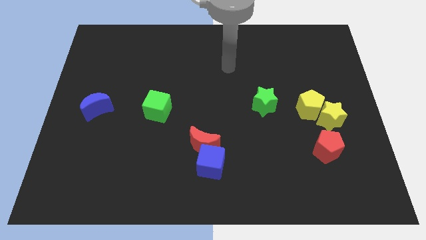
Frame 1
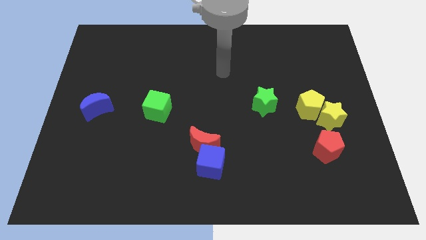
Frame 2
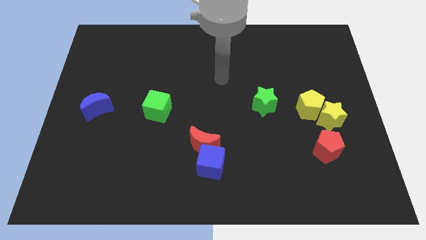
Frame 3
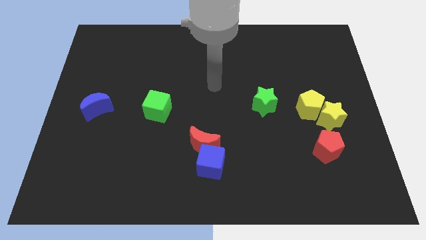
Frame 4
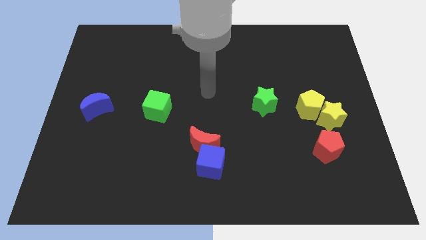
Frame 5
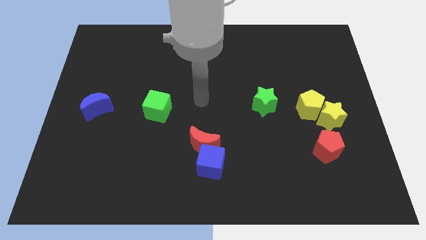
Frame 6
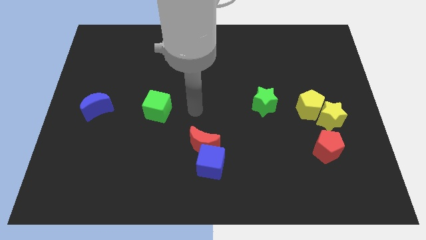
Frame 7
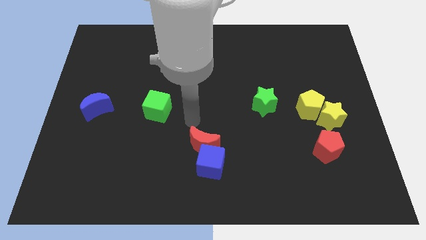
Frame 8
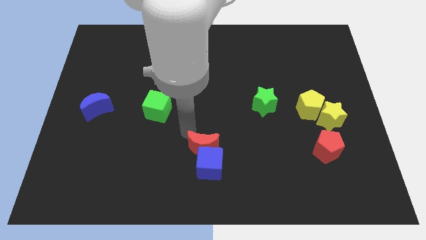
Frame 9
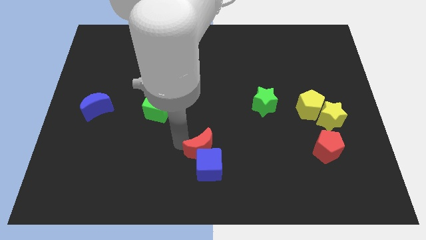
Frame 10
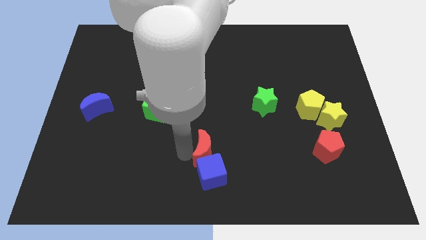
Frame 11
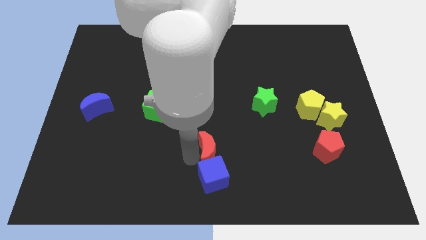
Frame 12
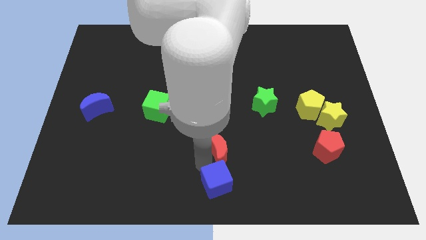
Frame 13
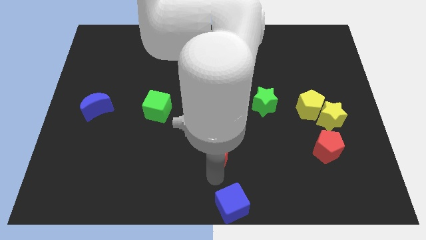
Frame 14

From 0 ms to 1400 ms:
move the red moon away from the blue cube

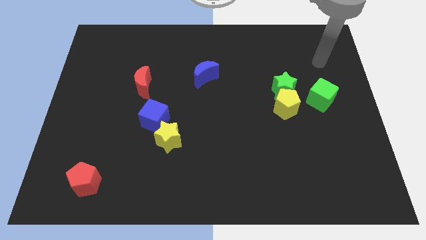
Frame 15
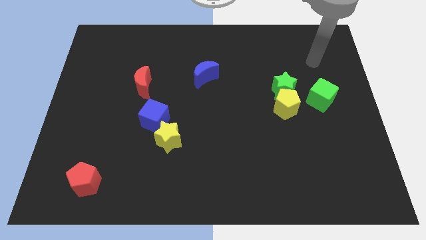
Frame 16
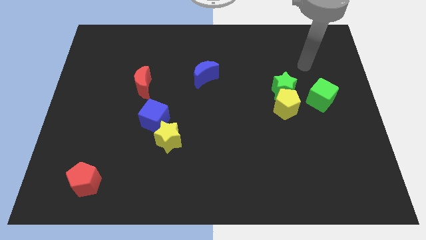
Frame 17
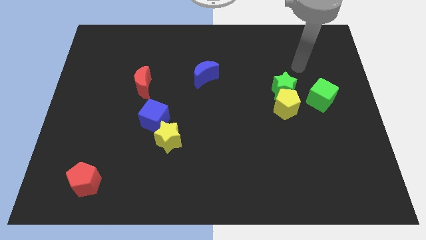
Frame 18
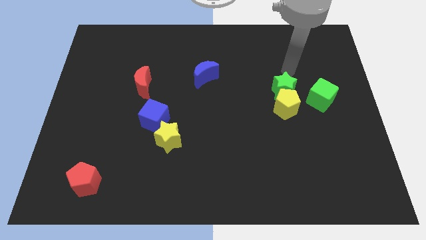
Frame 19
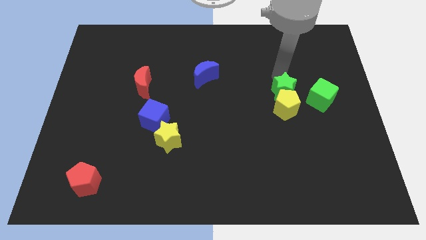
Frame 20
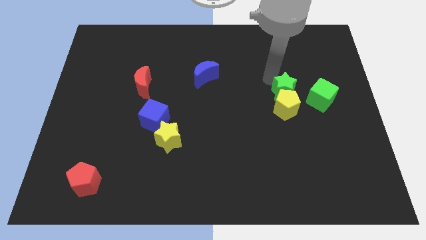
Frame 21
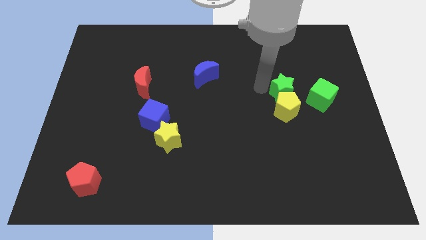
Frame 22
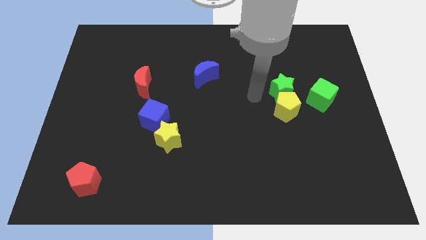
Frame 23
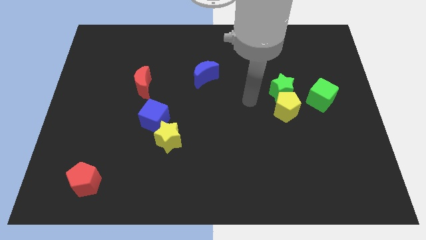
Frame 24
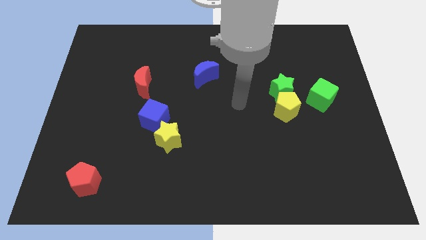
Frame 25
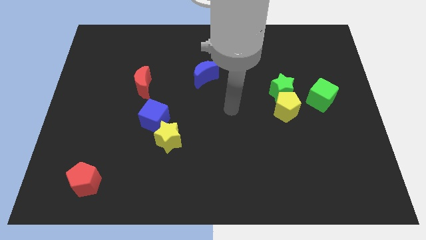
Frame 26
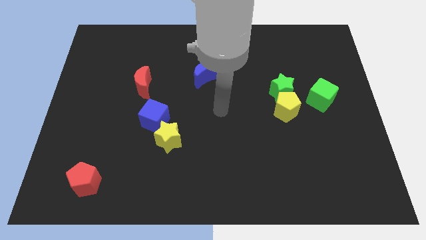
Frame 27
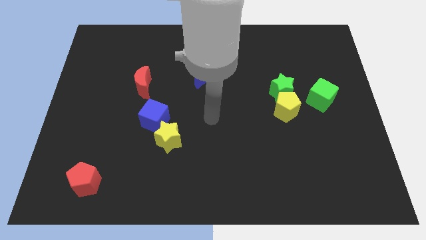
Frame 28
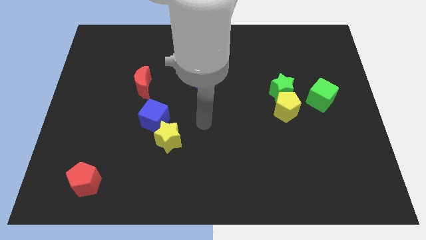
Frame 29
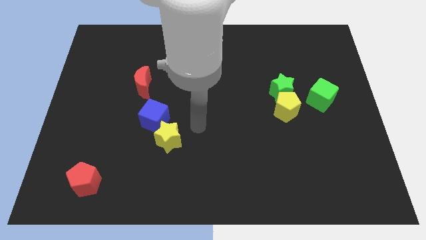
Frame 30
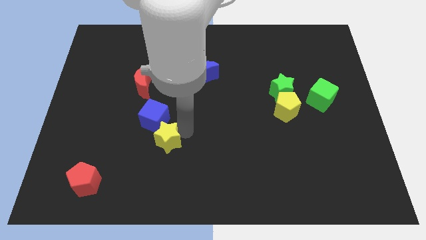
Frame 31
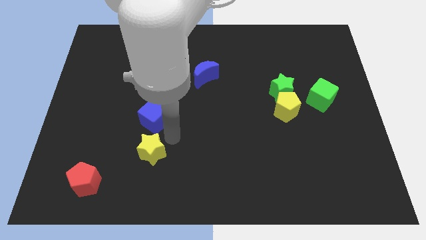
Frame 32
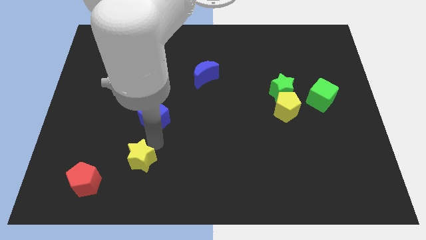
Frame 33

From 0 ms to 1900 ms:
separate the blue cube from the yellow star

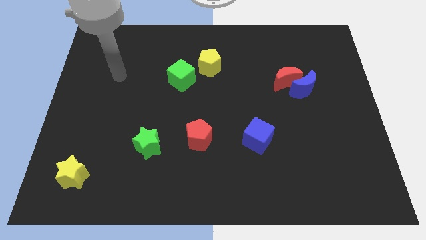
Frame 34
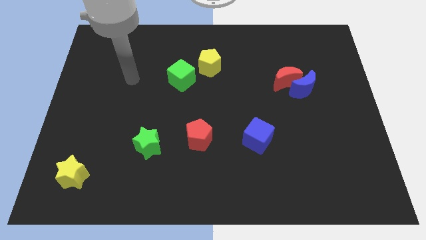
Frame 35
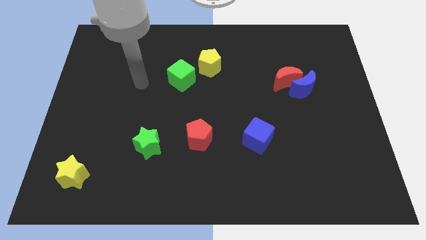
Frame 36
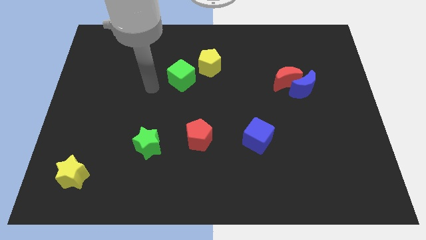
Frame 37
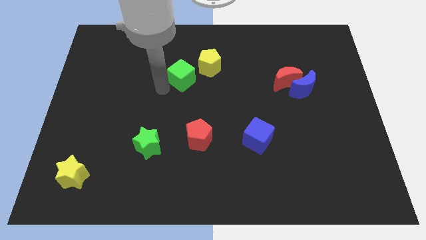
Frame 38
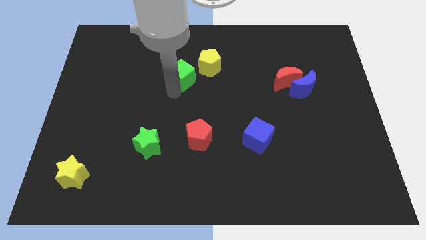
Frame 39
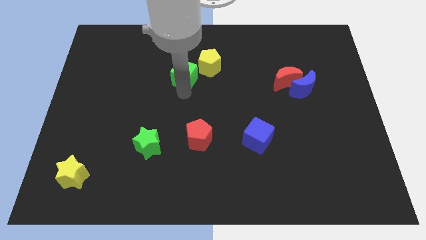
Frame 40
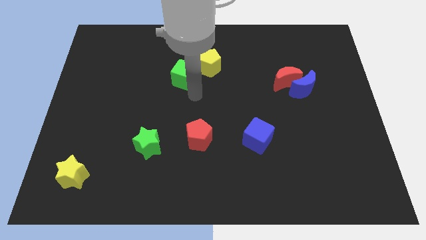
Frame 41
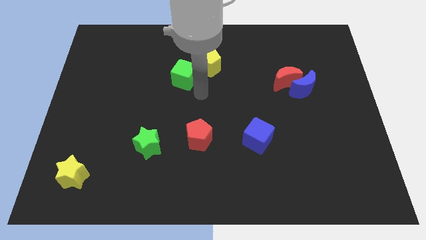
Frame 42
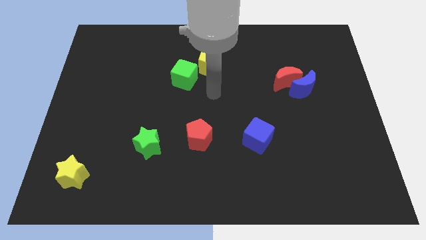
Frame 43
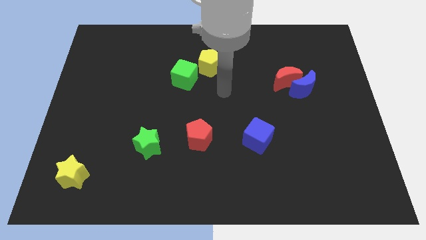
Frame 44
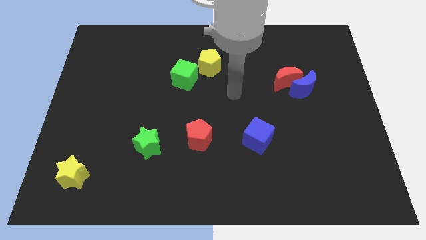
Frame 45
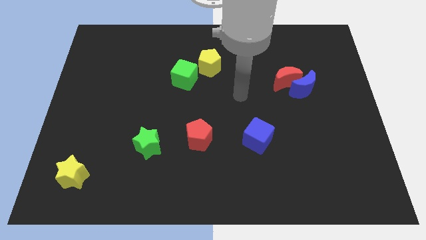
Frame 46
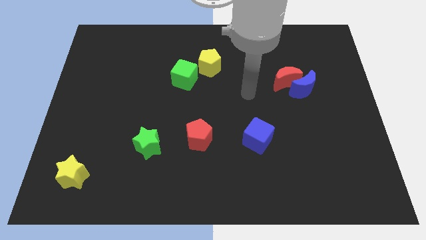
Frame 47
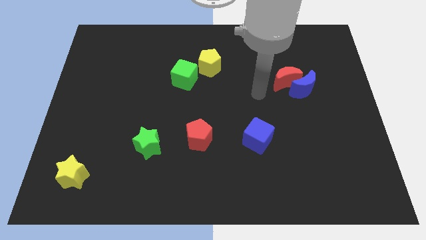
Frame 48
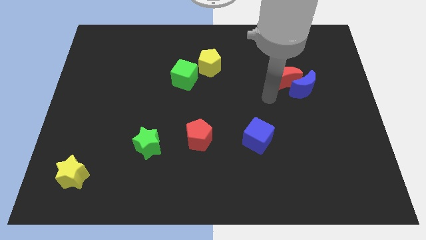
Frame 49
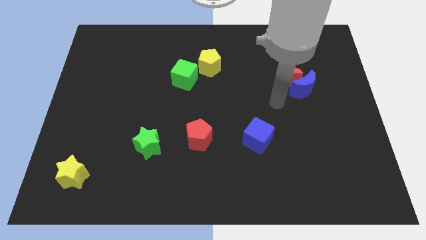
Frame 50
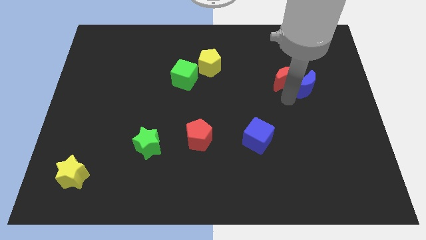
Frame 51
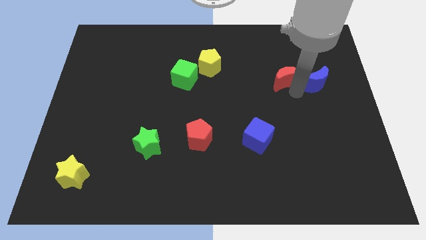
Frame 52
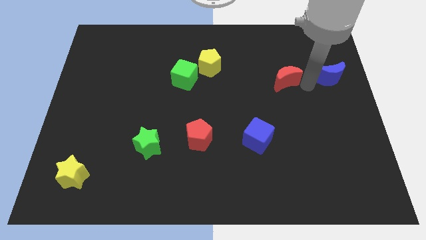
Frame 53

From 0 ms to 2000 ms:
move the red moon away from the blue moon

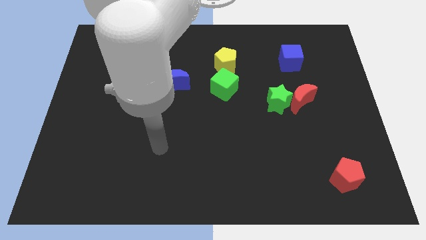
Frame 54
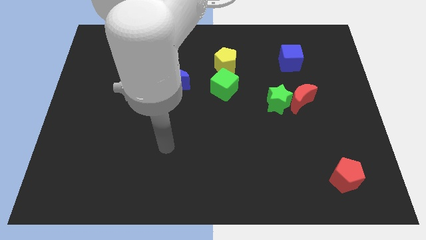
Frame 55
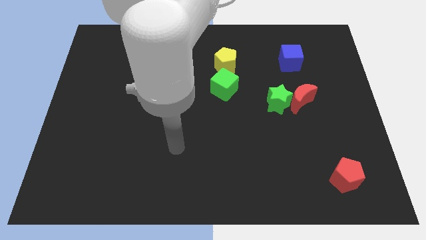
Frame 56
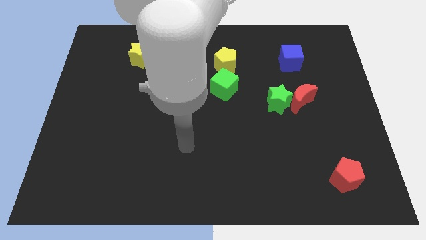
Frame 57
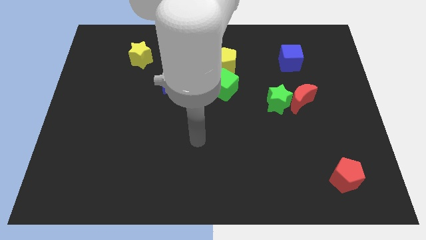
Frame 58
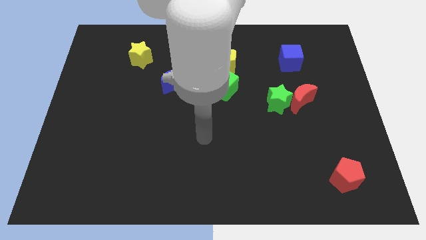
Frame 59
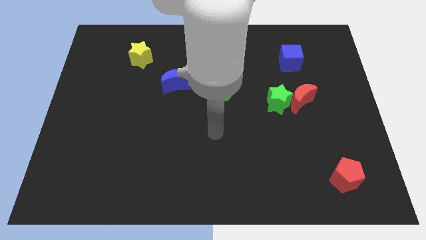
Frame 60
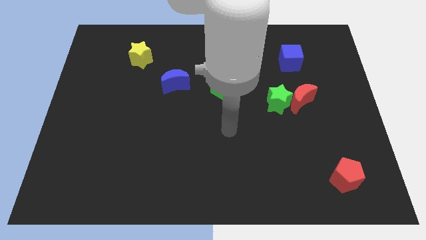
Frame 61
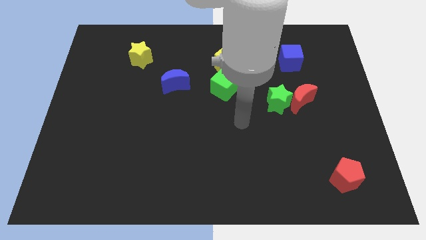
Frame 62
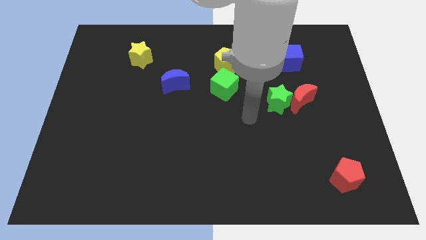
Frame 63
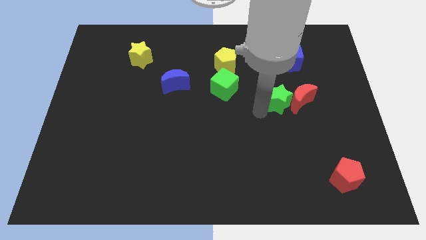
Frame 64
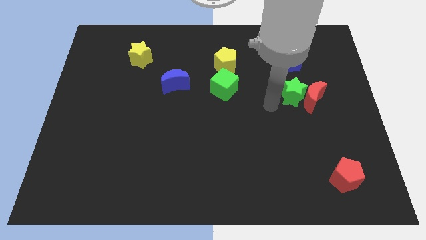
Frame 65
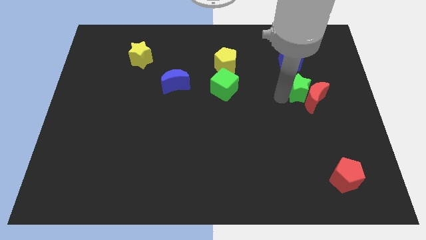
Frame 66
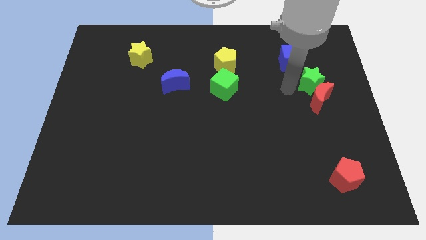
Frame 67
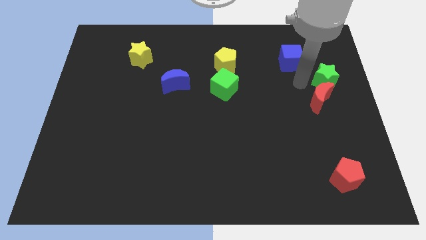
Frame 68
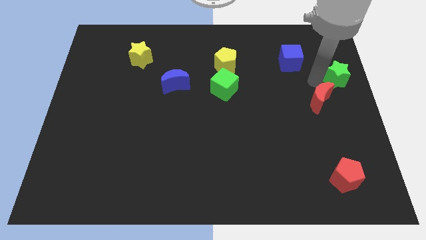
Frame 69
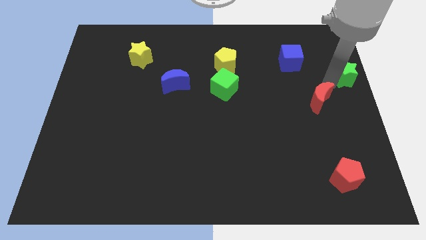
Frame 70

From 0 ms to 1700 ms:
pull the red moon apart from the green star

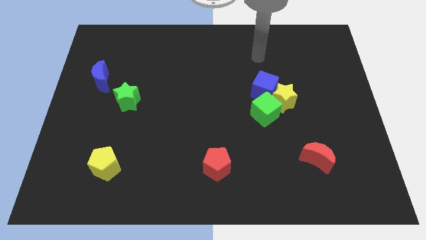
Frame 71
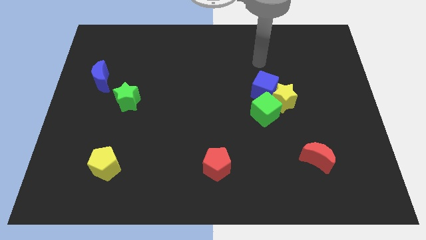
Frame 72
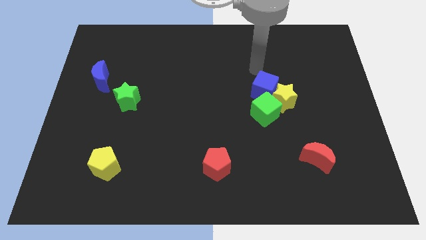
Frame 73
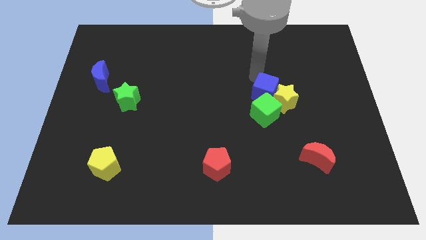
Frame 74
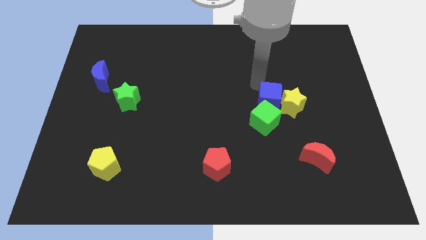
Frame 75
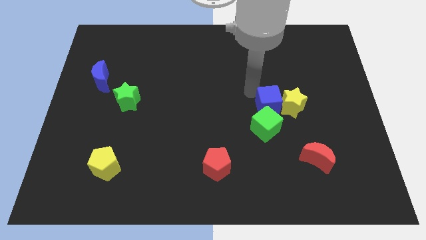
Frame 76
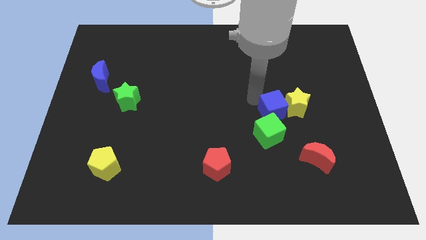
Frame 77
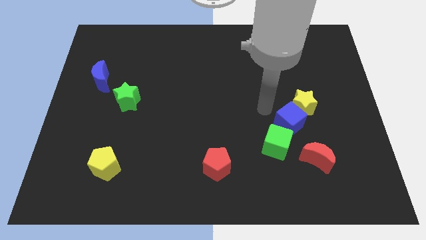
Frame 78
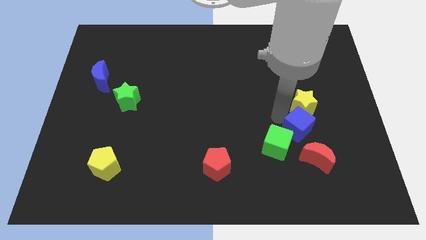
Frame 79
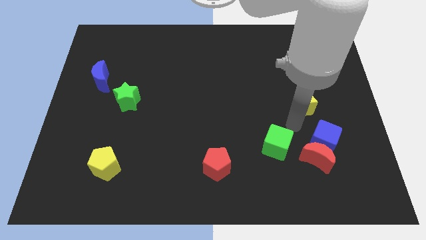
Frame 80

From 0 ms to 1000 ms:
separate the yellow star from the blue cube and green cube

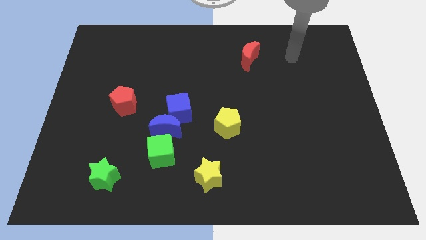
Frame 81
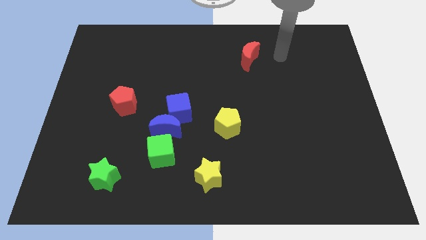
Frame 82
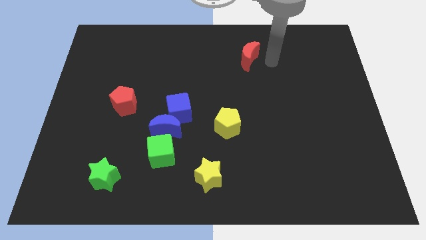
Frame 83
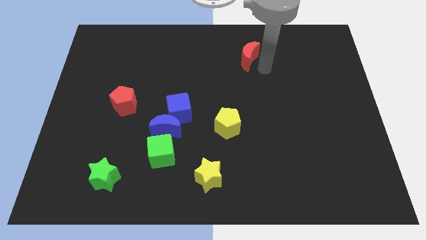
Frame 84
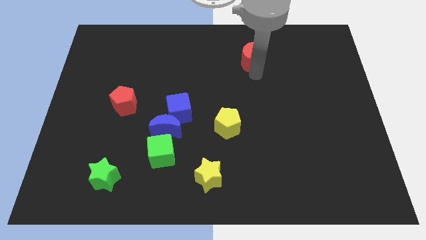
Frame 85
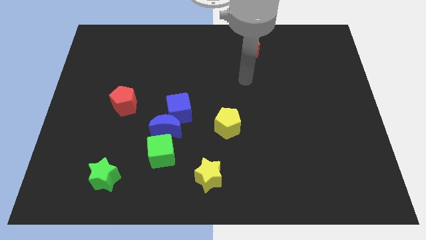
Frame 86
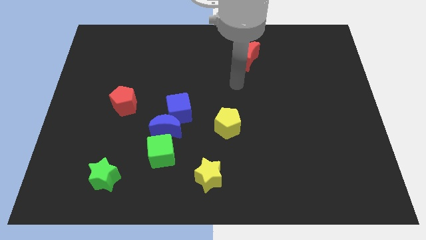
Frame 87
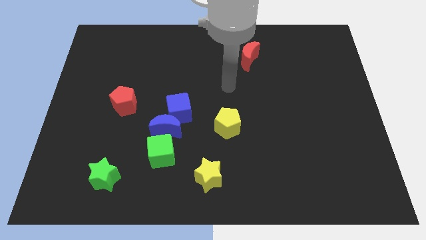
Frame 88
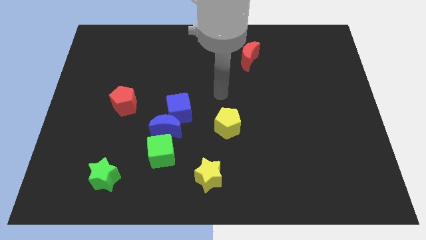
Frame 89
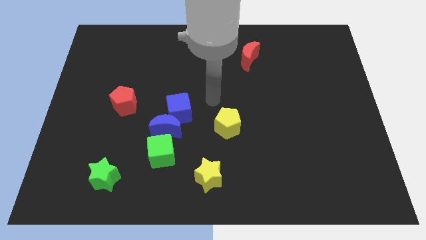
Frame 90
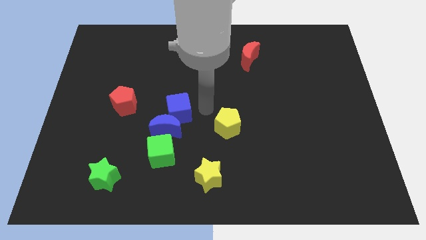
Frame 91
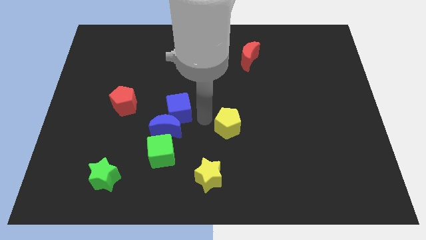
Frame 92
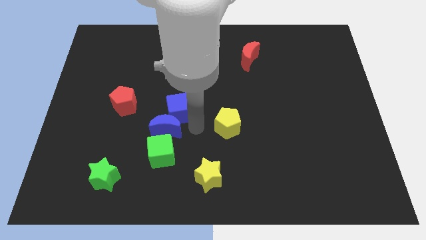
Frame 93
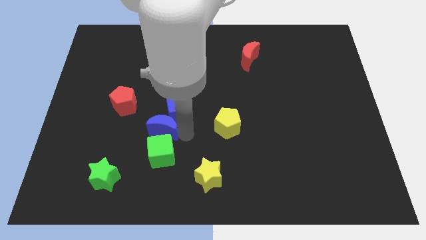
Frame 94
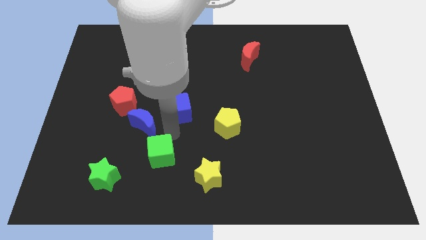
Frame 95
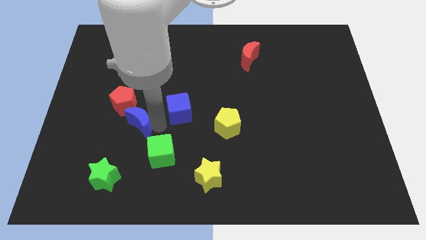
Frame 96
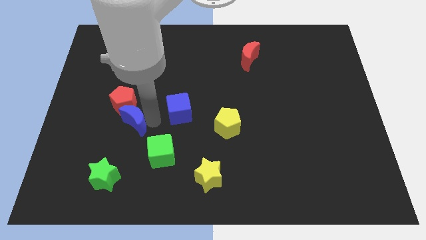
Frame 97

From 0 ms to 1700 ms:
separate the blue cube from the blue moon
